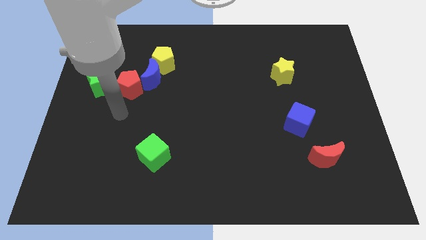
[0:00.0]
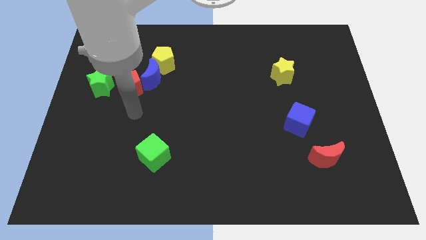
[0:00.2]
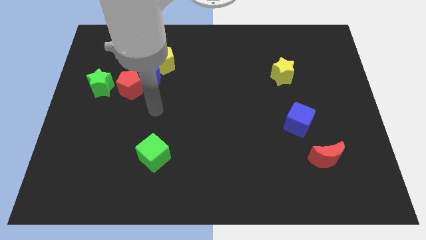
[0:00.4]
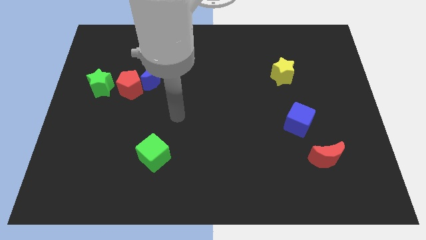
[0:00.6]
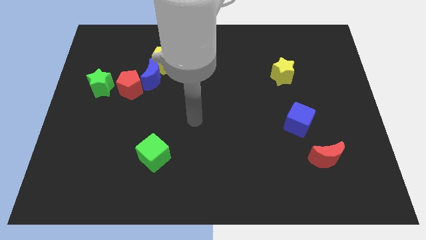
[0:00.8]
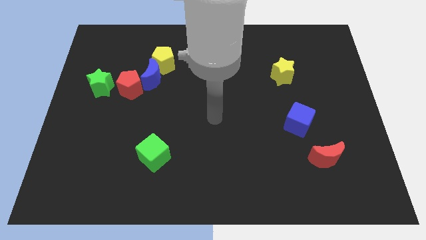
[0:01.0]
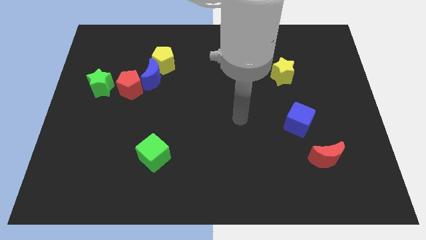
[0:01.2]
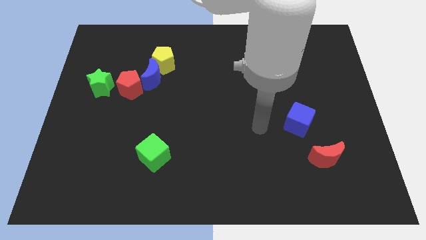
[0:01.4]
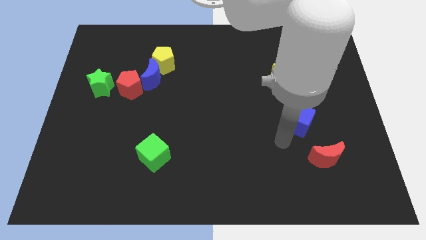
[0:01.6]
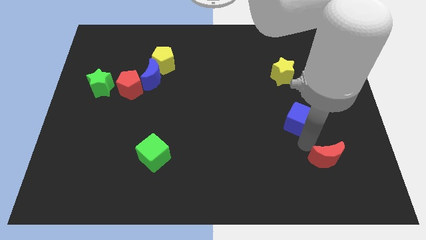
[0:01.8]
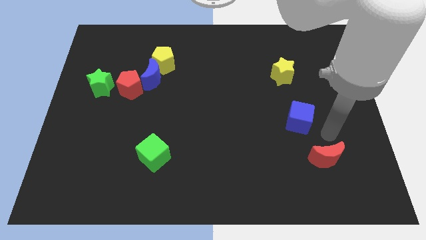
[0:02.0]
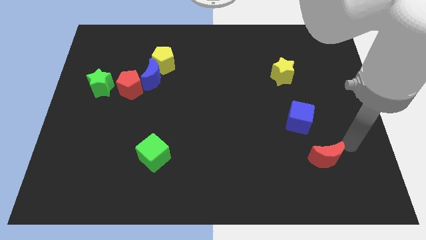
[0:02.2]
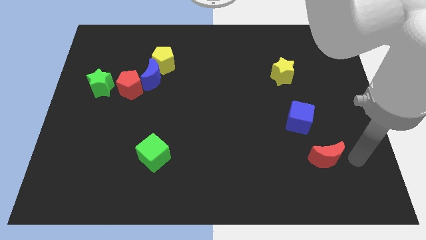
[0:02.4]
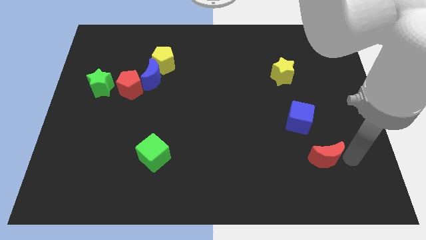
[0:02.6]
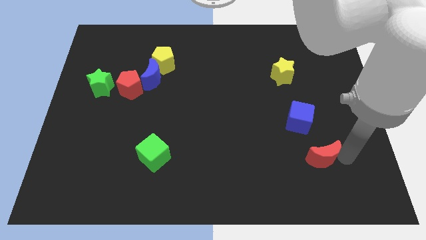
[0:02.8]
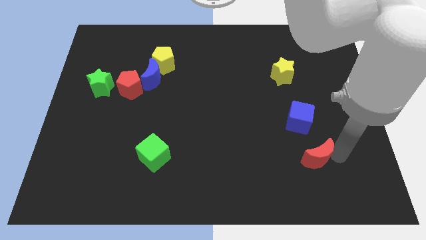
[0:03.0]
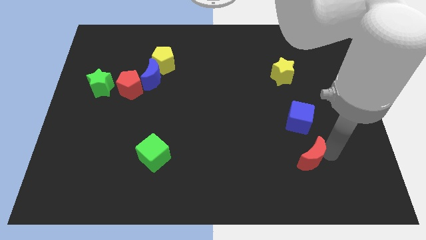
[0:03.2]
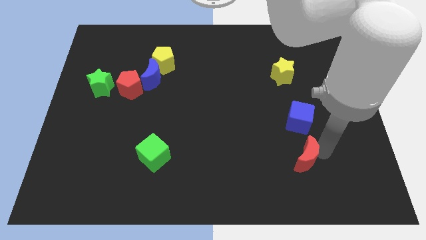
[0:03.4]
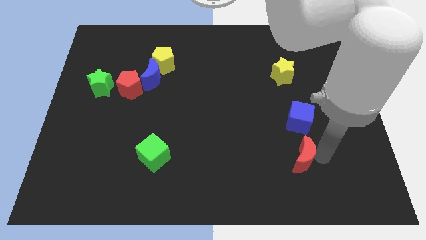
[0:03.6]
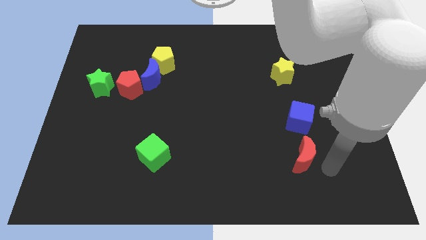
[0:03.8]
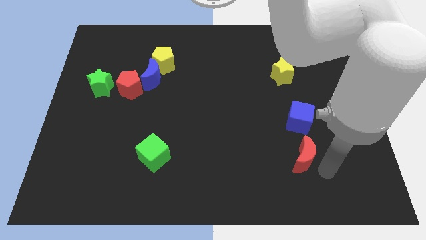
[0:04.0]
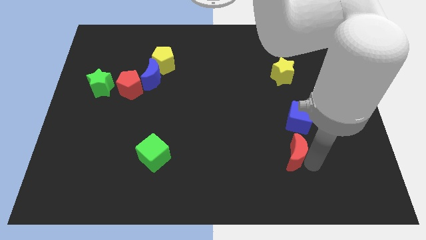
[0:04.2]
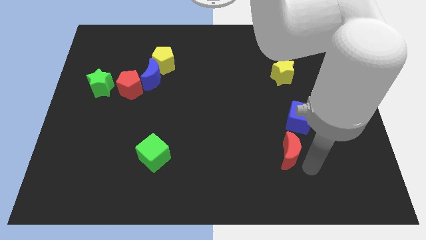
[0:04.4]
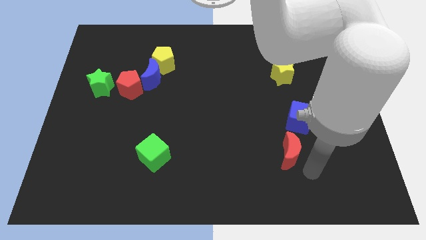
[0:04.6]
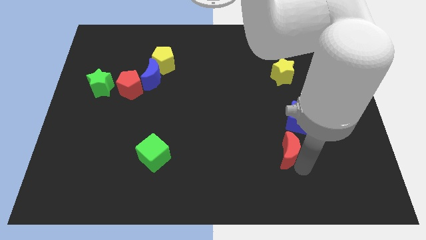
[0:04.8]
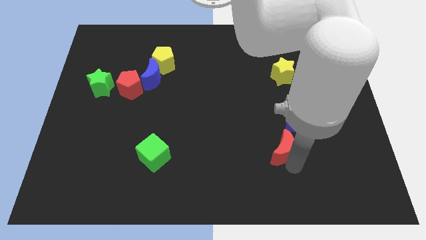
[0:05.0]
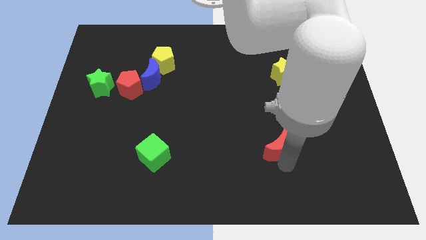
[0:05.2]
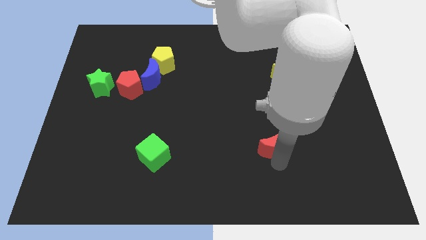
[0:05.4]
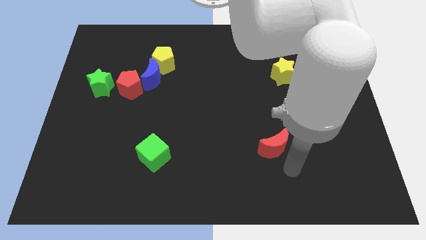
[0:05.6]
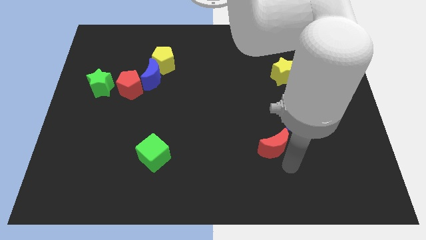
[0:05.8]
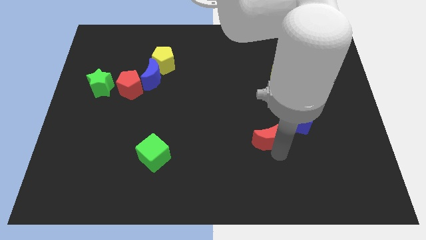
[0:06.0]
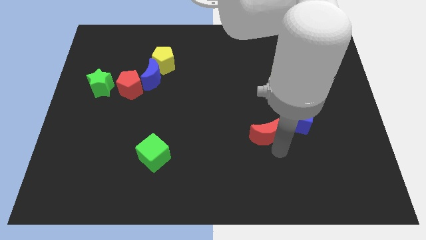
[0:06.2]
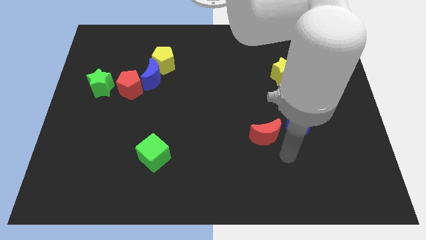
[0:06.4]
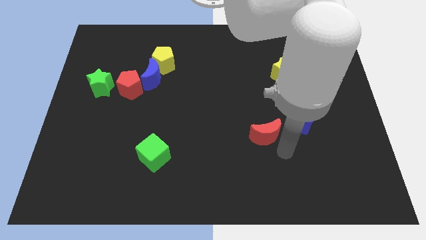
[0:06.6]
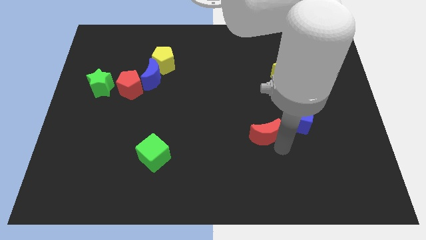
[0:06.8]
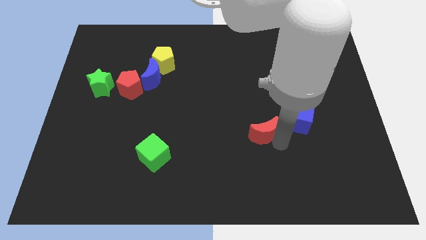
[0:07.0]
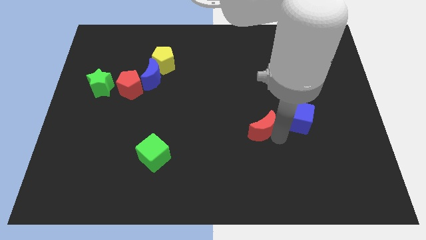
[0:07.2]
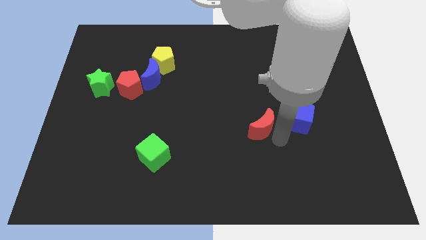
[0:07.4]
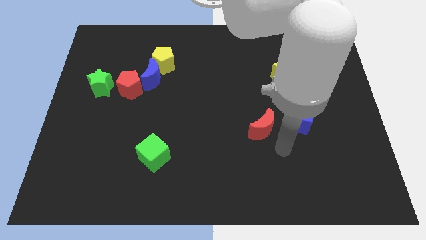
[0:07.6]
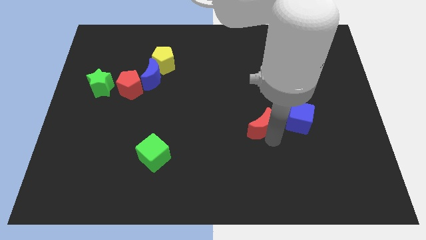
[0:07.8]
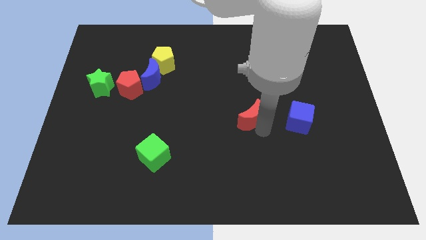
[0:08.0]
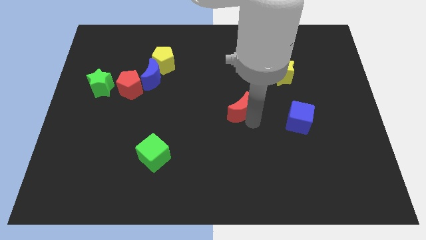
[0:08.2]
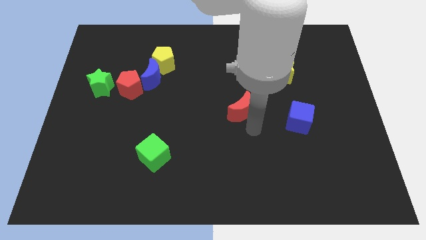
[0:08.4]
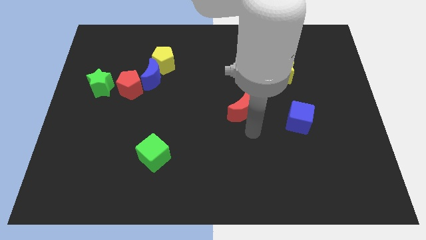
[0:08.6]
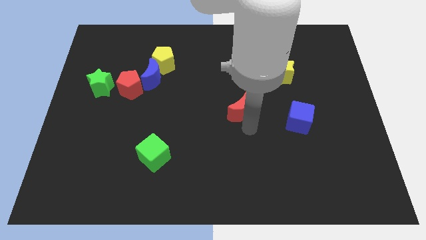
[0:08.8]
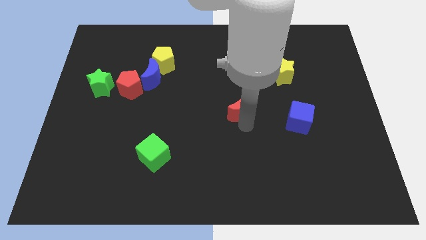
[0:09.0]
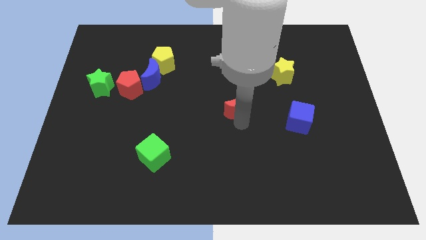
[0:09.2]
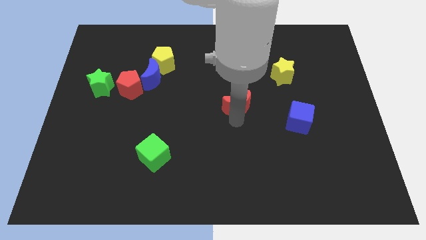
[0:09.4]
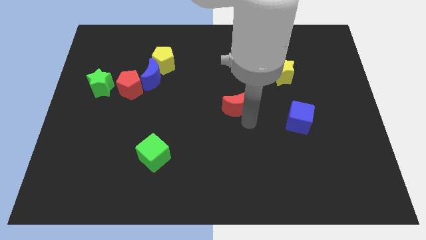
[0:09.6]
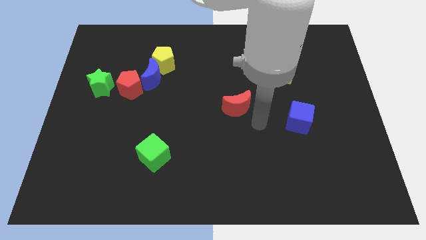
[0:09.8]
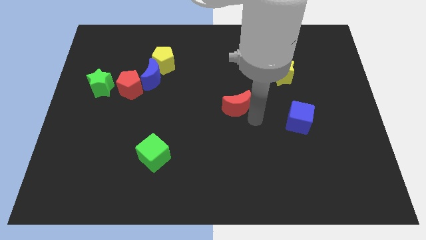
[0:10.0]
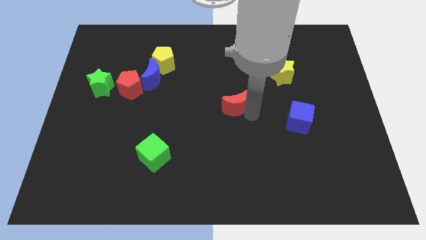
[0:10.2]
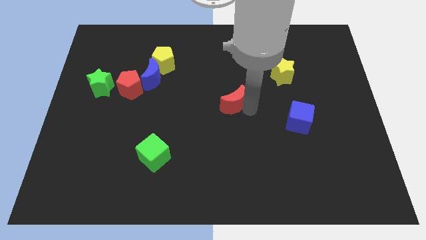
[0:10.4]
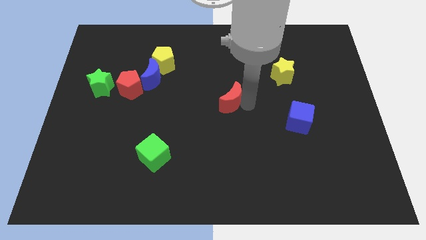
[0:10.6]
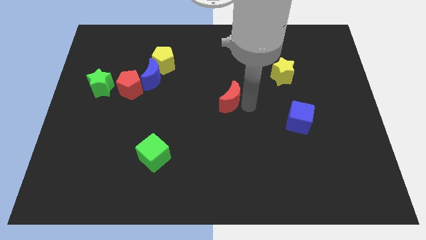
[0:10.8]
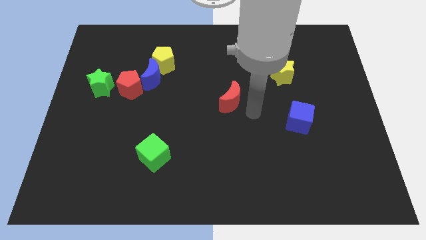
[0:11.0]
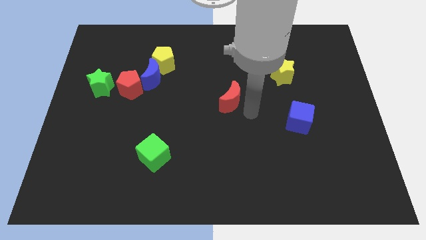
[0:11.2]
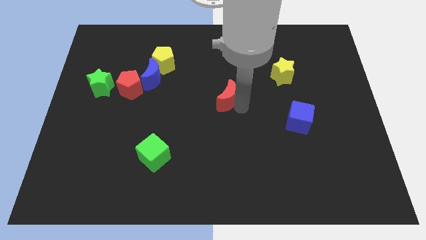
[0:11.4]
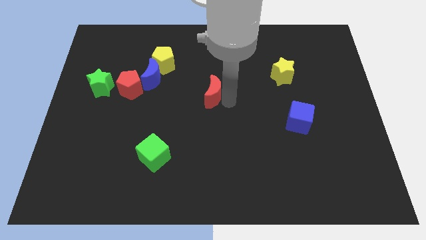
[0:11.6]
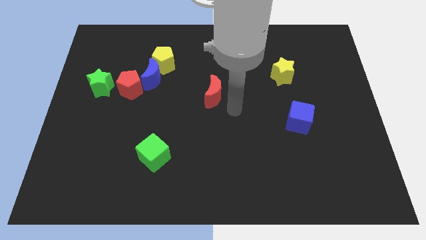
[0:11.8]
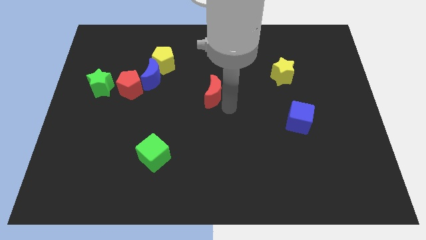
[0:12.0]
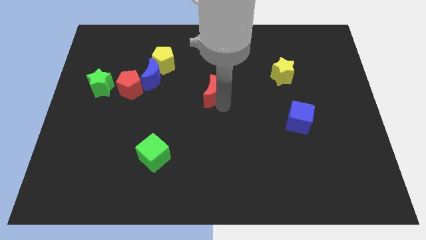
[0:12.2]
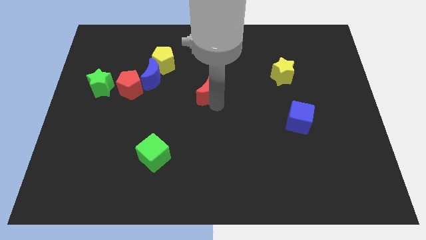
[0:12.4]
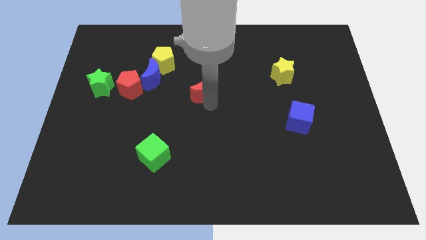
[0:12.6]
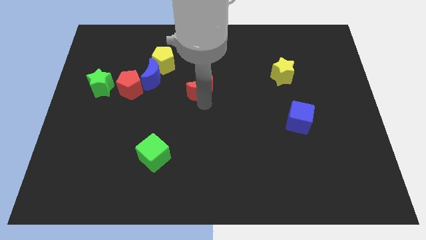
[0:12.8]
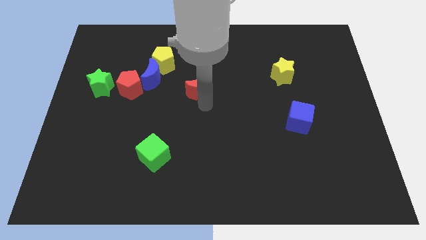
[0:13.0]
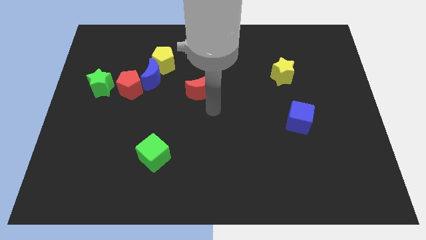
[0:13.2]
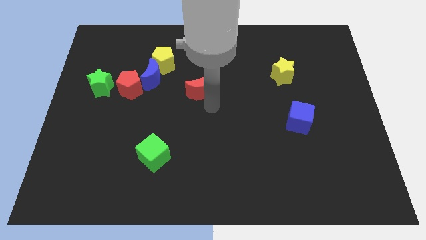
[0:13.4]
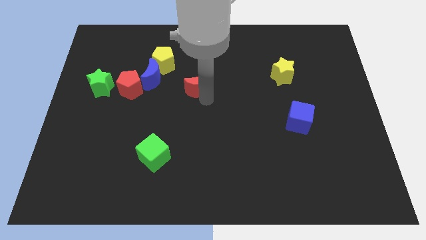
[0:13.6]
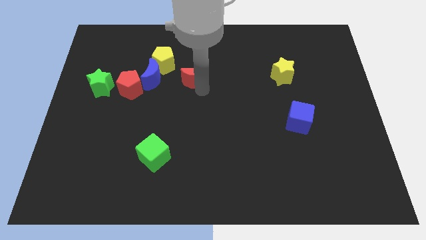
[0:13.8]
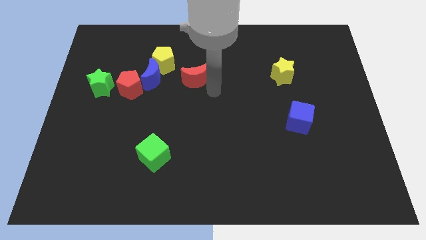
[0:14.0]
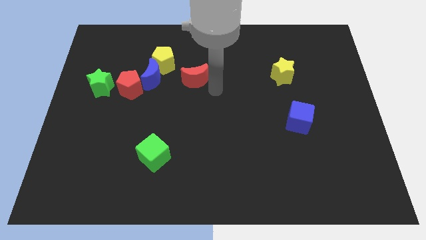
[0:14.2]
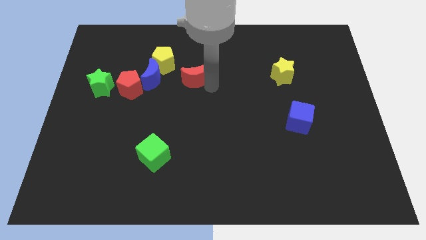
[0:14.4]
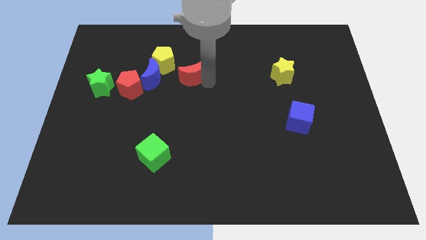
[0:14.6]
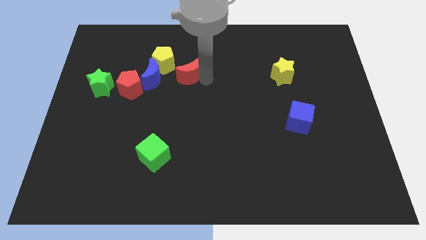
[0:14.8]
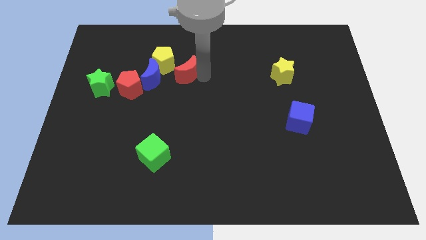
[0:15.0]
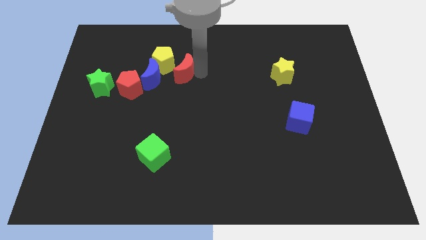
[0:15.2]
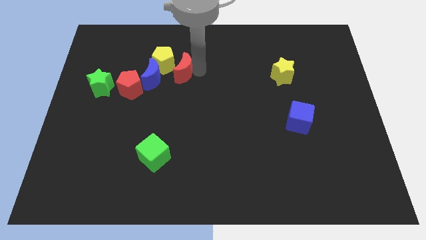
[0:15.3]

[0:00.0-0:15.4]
move the red moon towards the yellow pentagon
